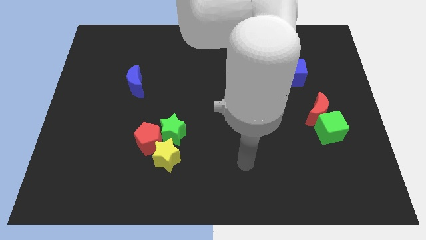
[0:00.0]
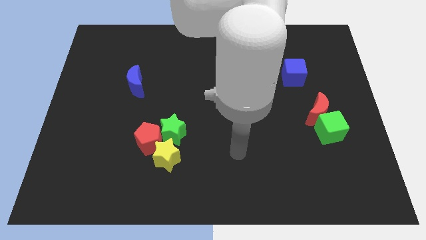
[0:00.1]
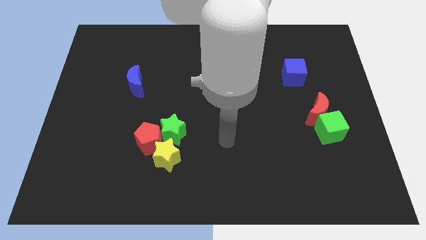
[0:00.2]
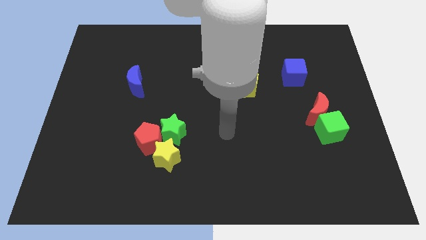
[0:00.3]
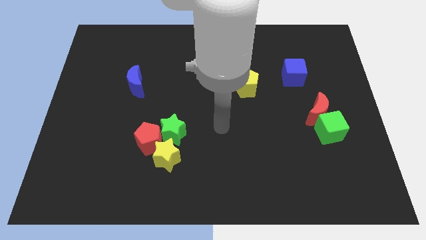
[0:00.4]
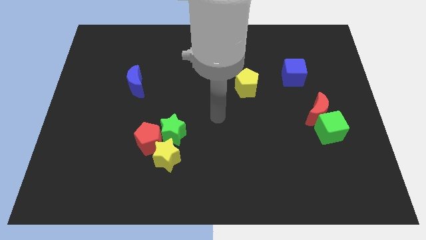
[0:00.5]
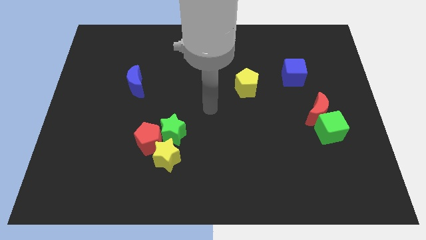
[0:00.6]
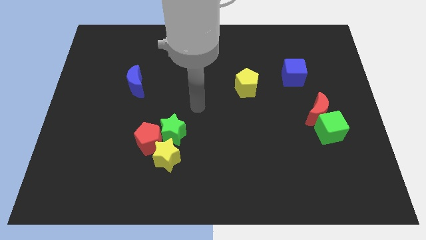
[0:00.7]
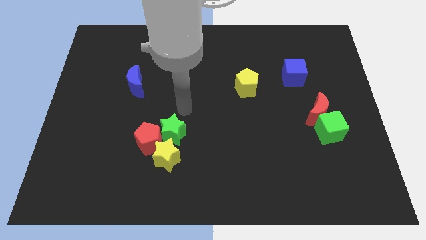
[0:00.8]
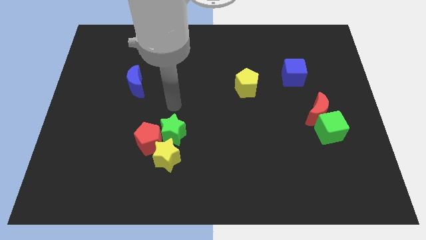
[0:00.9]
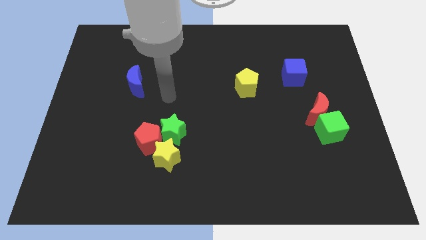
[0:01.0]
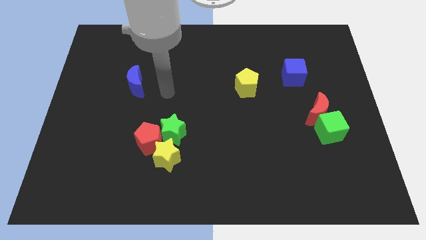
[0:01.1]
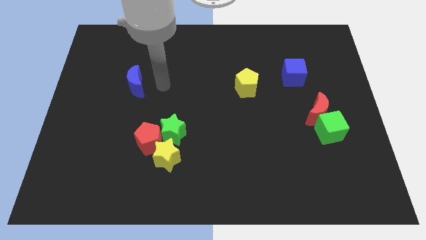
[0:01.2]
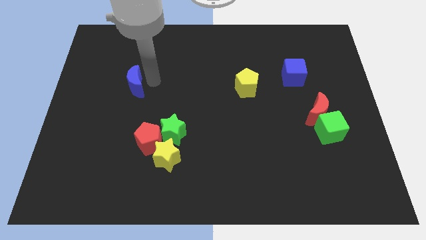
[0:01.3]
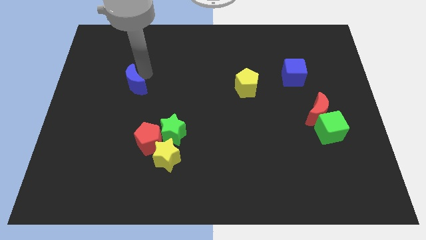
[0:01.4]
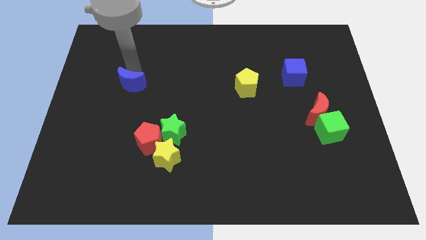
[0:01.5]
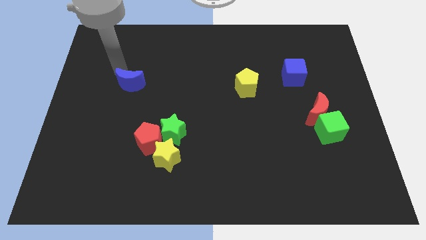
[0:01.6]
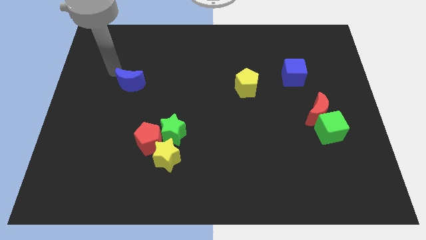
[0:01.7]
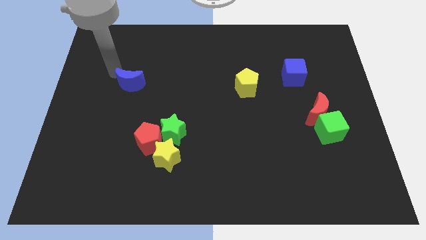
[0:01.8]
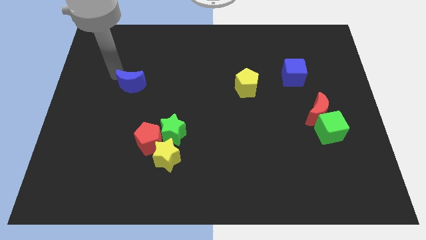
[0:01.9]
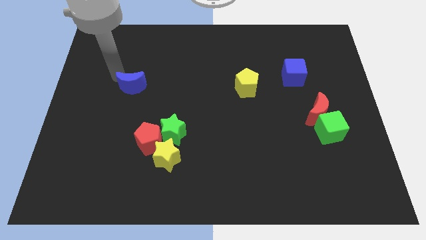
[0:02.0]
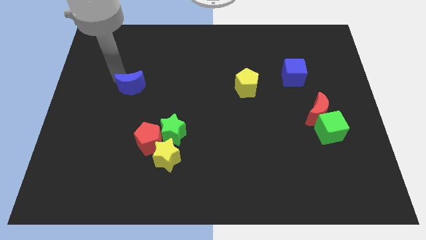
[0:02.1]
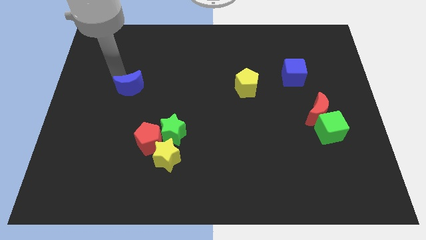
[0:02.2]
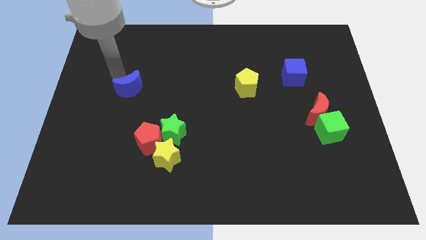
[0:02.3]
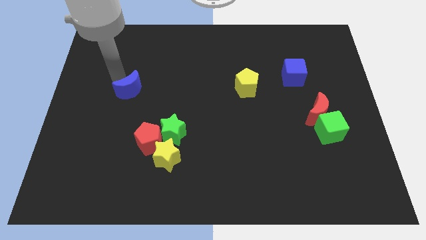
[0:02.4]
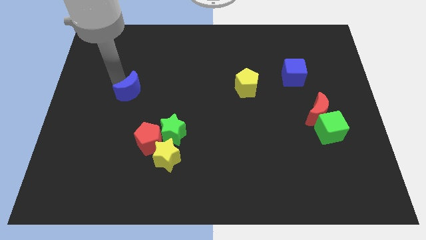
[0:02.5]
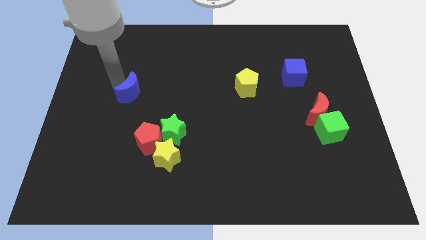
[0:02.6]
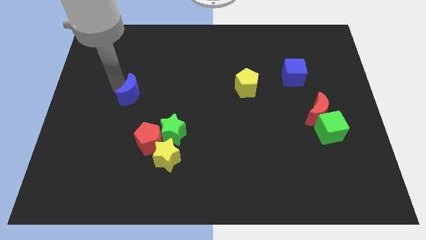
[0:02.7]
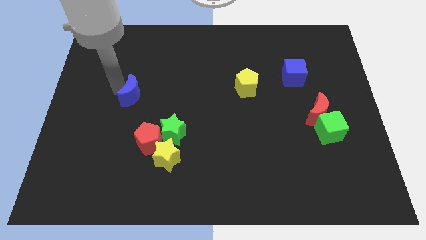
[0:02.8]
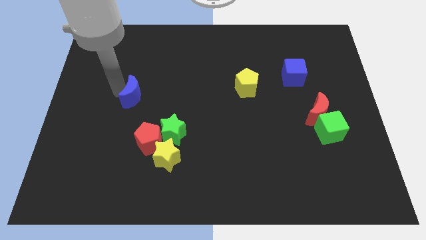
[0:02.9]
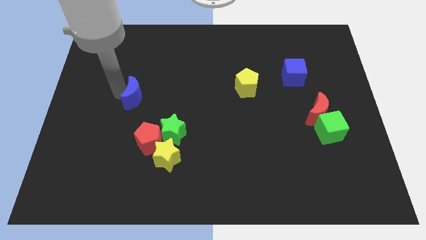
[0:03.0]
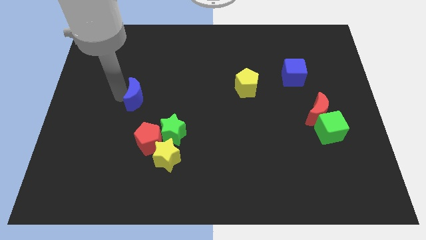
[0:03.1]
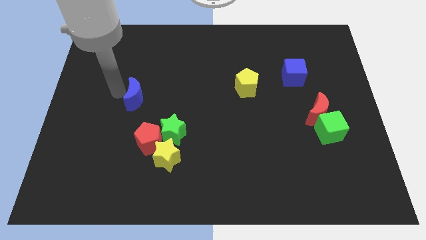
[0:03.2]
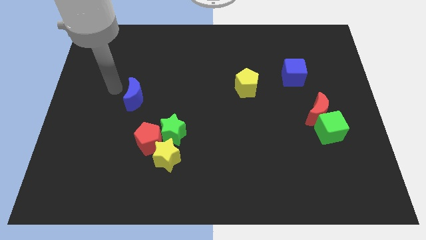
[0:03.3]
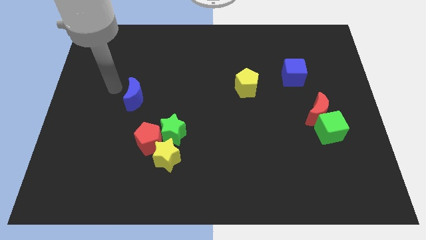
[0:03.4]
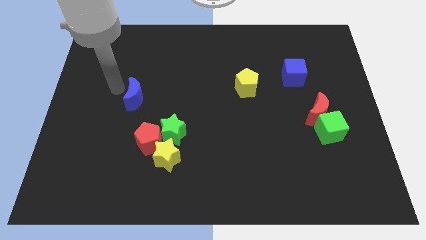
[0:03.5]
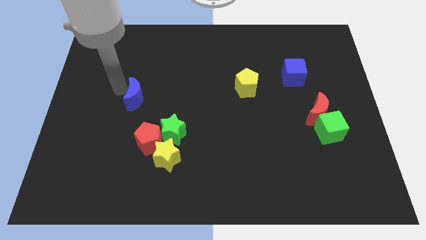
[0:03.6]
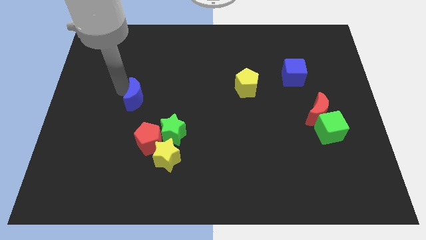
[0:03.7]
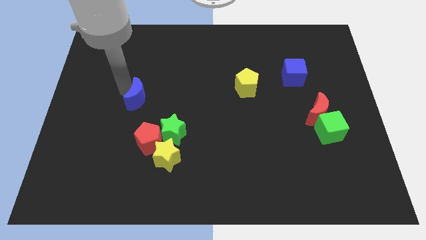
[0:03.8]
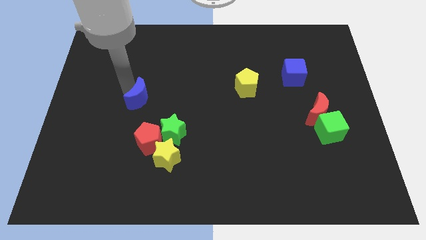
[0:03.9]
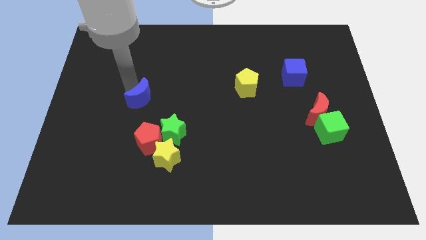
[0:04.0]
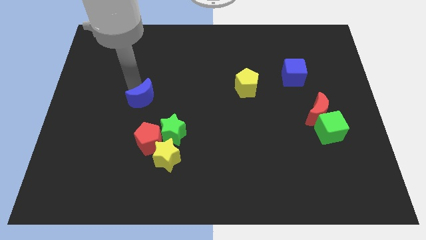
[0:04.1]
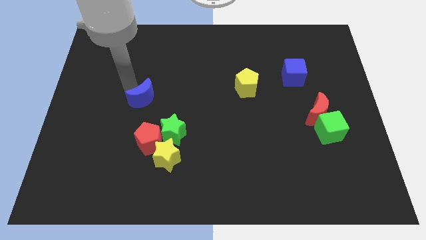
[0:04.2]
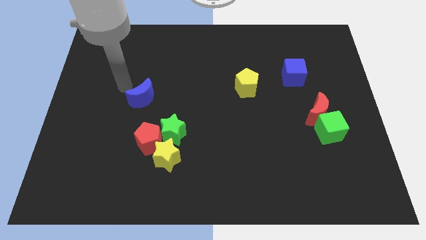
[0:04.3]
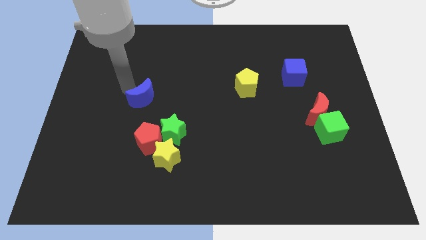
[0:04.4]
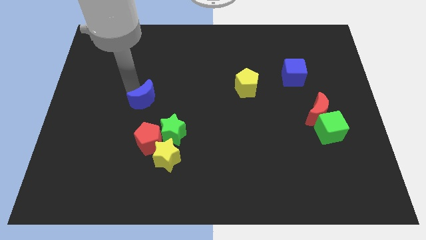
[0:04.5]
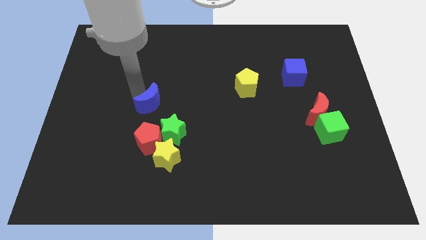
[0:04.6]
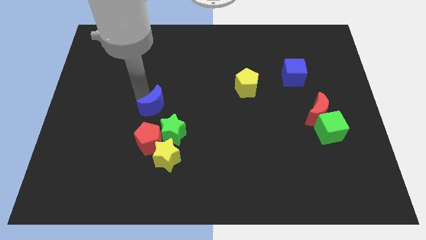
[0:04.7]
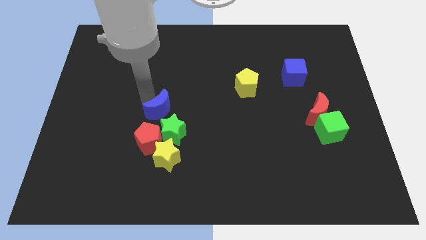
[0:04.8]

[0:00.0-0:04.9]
move the blue moon to the top of the yellow star

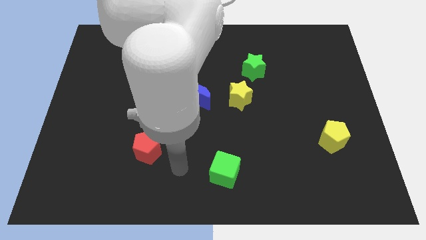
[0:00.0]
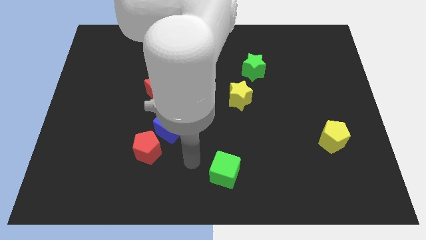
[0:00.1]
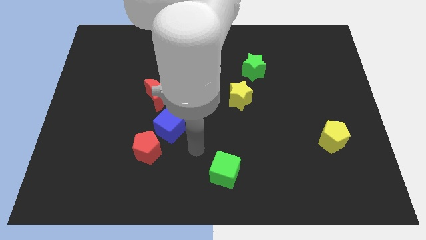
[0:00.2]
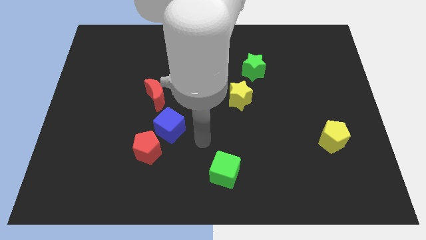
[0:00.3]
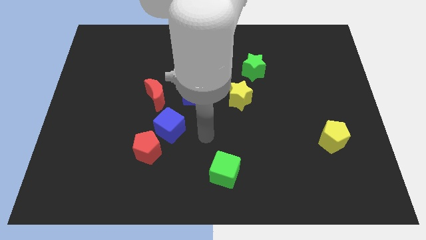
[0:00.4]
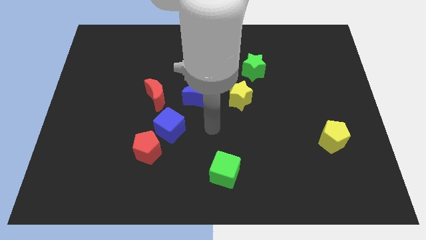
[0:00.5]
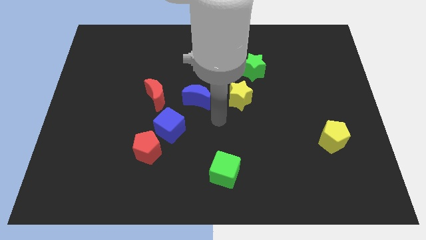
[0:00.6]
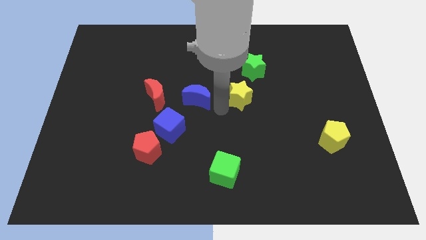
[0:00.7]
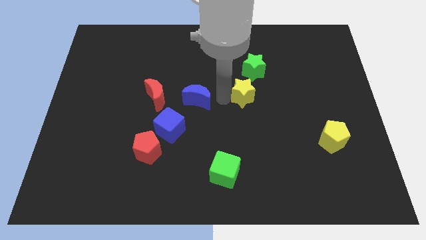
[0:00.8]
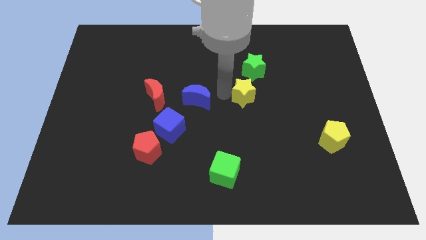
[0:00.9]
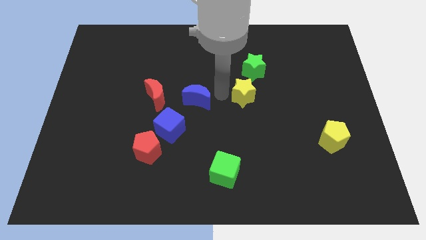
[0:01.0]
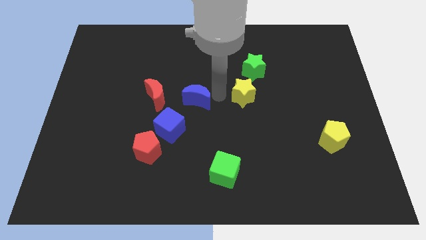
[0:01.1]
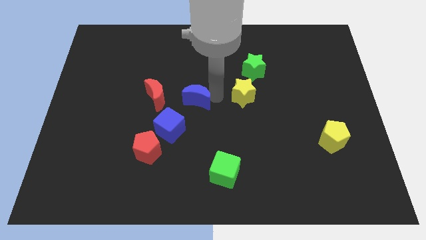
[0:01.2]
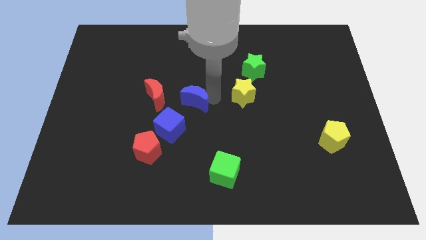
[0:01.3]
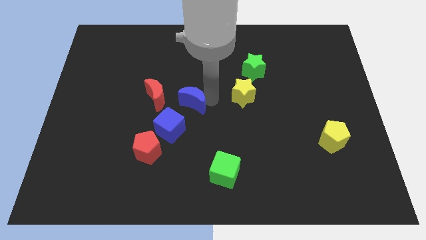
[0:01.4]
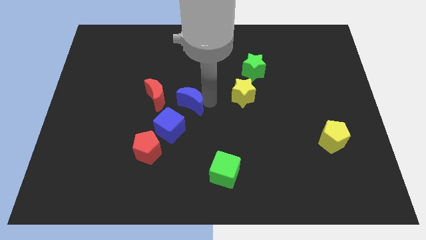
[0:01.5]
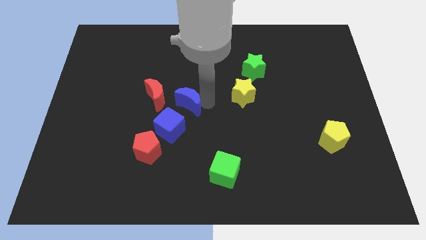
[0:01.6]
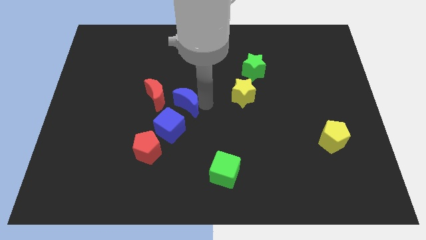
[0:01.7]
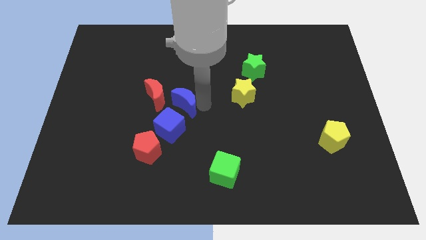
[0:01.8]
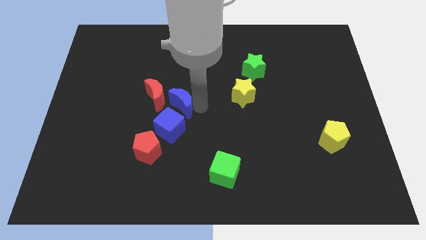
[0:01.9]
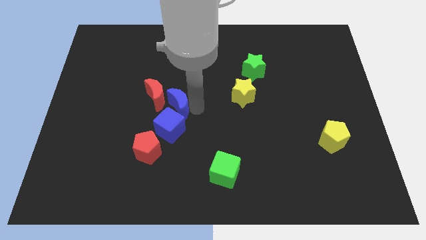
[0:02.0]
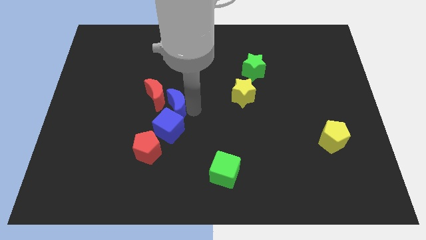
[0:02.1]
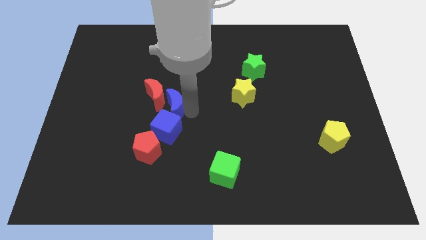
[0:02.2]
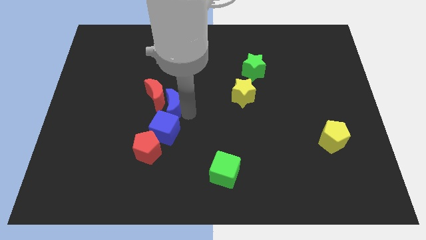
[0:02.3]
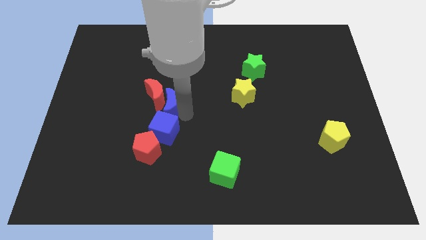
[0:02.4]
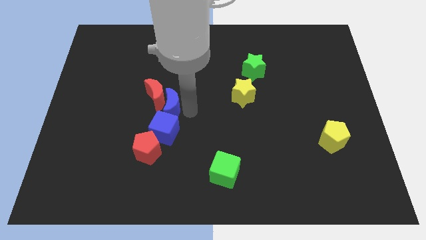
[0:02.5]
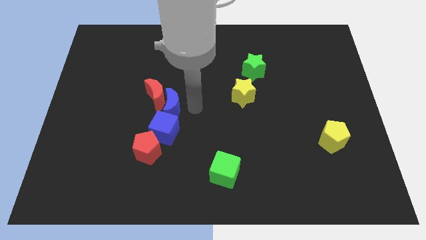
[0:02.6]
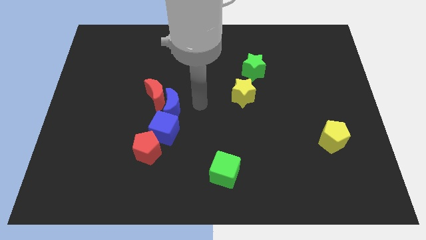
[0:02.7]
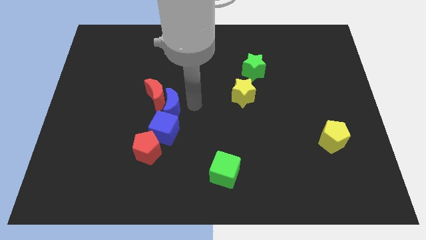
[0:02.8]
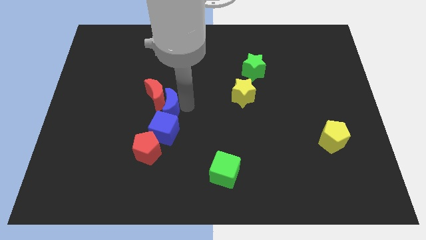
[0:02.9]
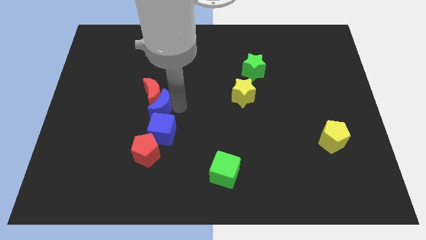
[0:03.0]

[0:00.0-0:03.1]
push the blue moon to the top left side of the blue cube
